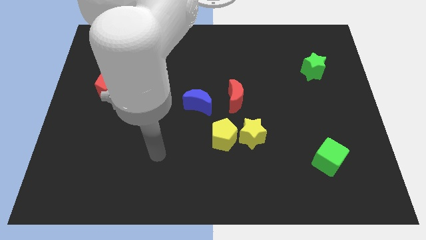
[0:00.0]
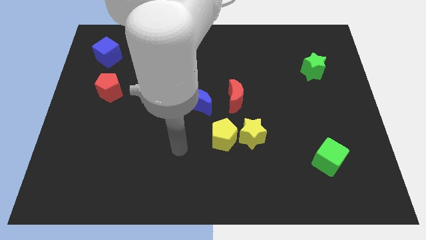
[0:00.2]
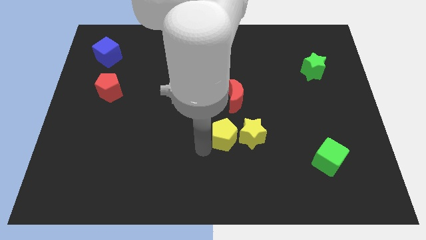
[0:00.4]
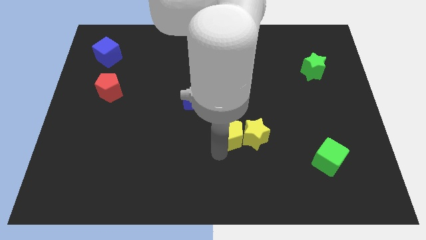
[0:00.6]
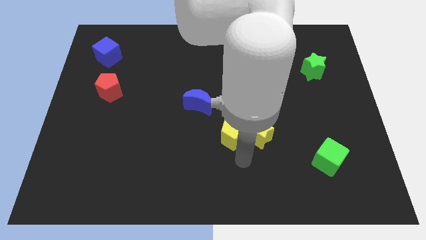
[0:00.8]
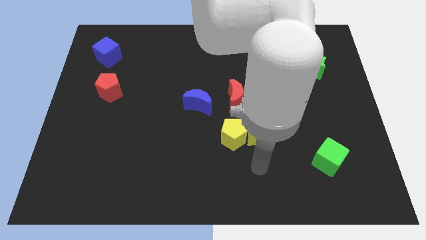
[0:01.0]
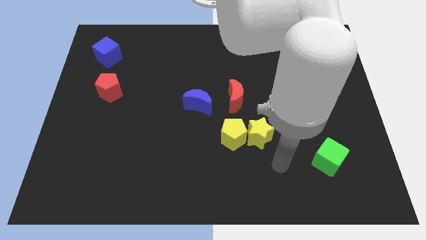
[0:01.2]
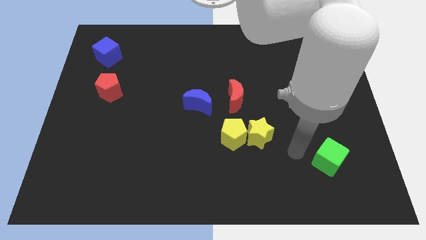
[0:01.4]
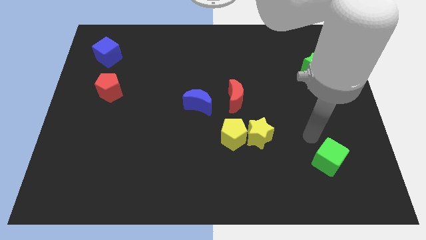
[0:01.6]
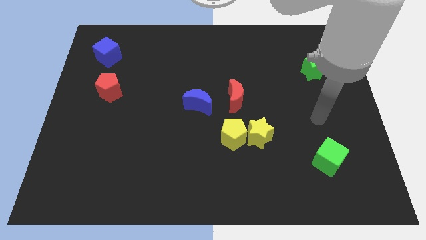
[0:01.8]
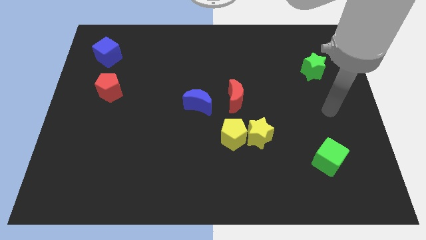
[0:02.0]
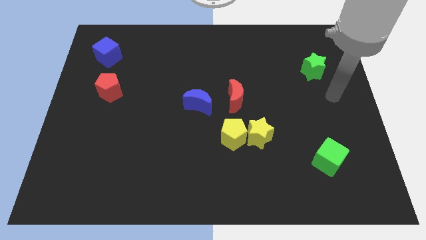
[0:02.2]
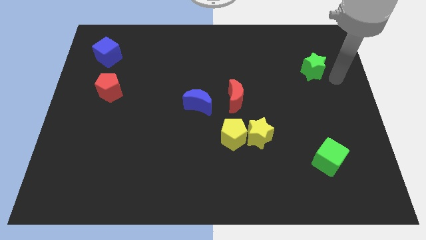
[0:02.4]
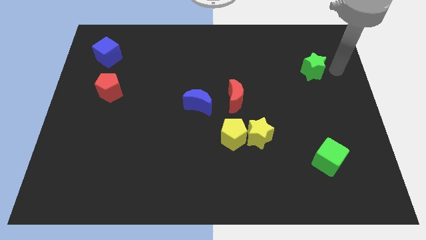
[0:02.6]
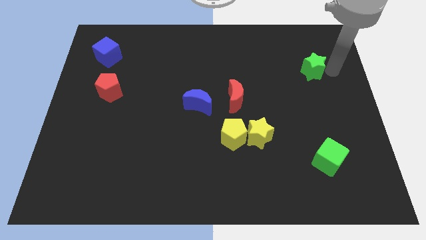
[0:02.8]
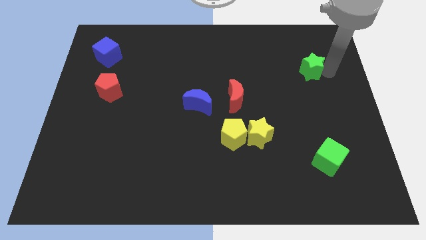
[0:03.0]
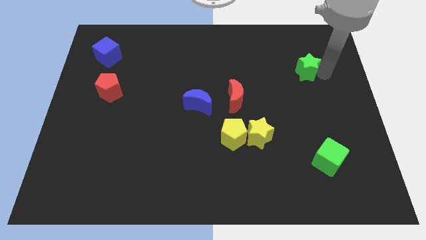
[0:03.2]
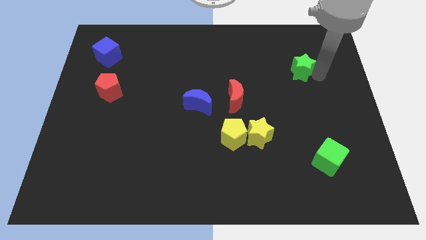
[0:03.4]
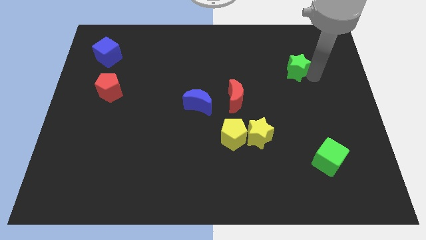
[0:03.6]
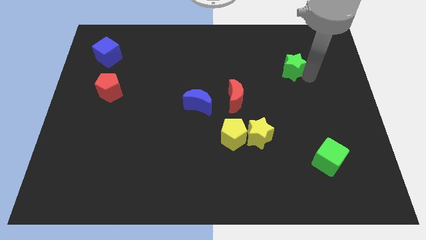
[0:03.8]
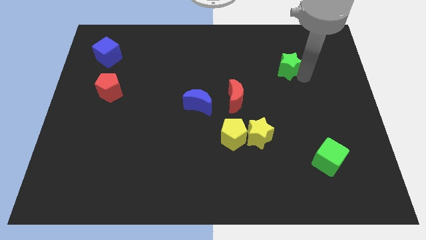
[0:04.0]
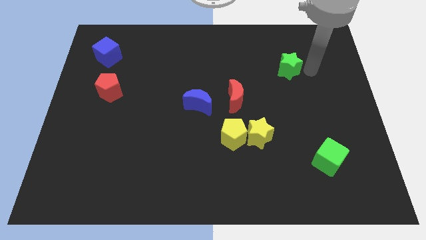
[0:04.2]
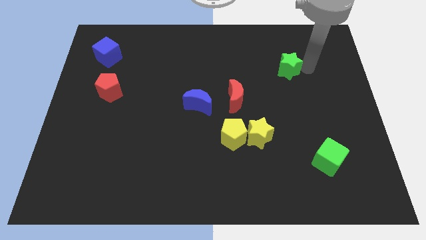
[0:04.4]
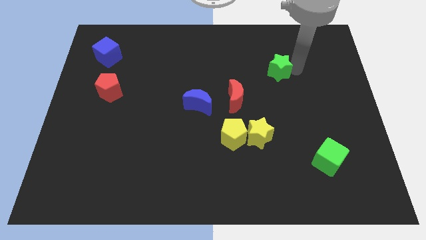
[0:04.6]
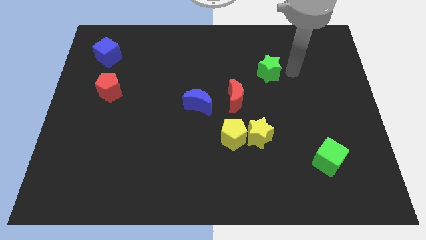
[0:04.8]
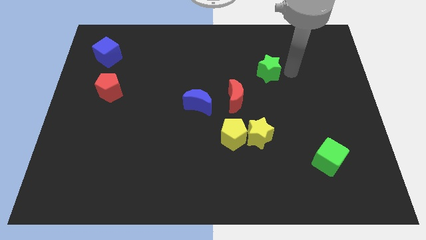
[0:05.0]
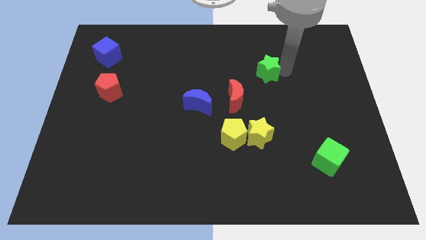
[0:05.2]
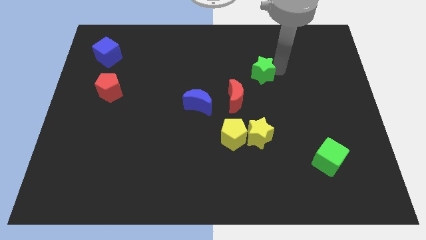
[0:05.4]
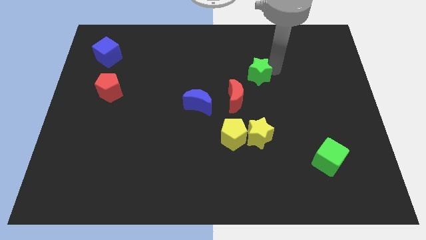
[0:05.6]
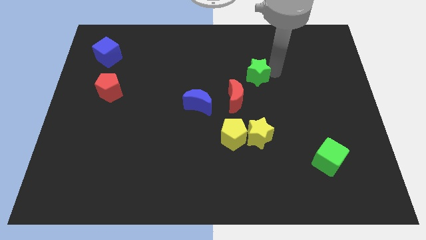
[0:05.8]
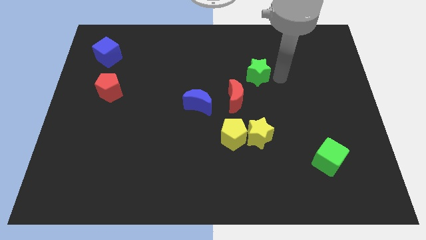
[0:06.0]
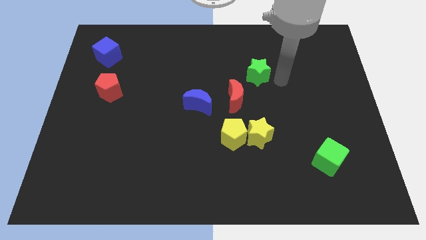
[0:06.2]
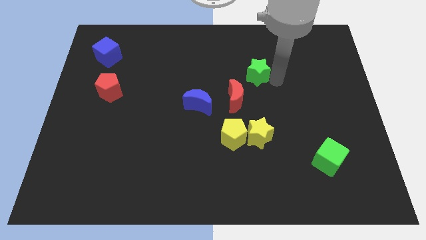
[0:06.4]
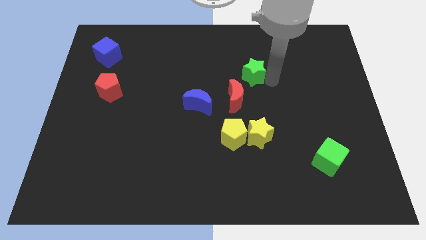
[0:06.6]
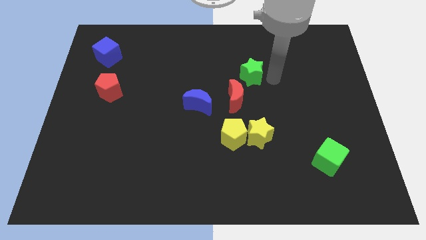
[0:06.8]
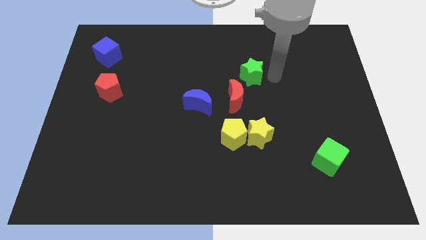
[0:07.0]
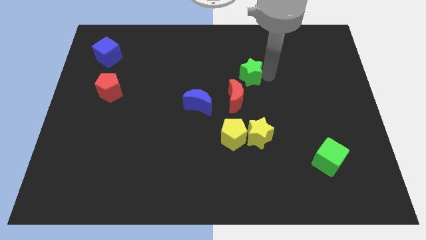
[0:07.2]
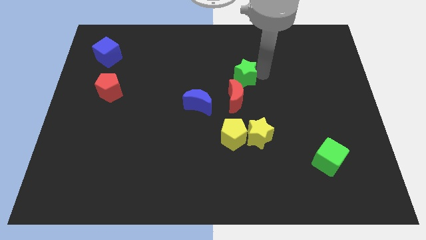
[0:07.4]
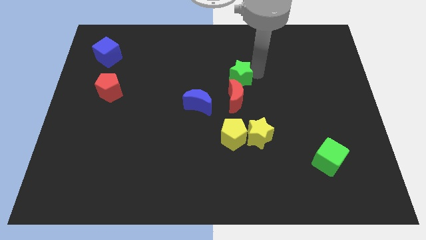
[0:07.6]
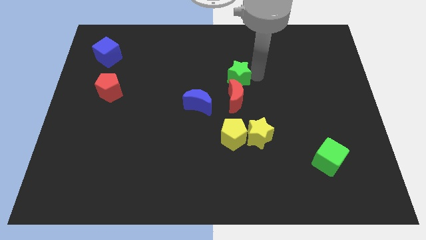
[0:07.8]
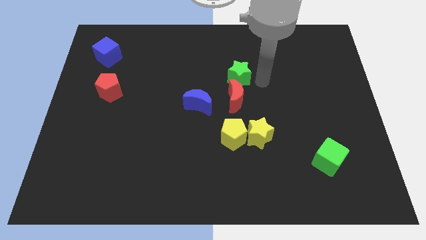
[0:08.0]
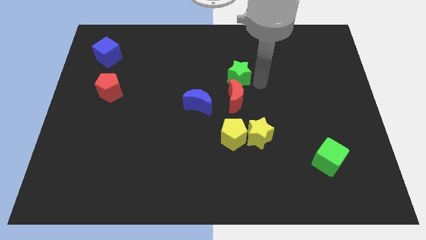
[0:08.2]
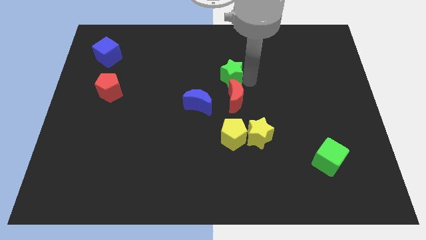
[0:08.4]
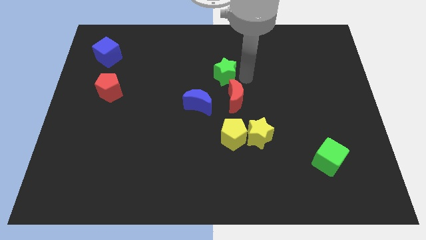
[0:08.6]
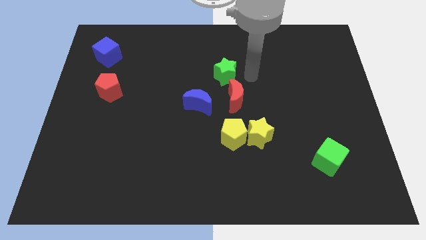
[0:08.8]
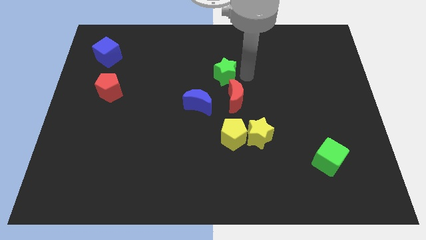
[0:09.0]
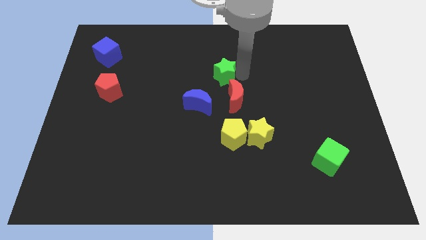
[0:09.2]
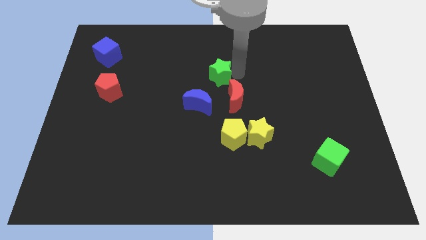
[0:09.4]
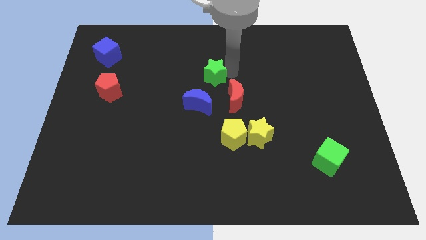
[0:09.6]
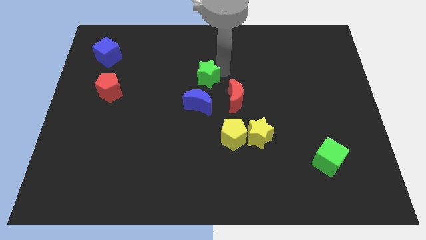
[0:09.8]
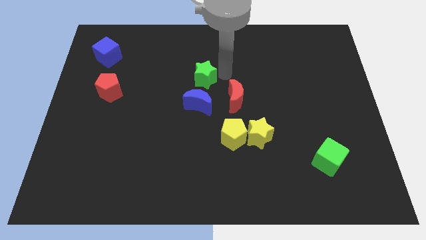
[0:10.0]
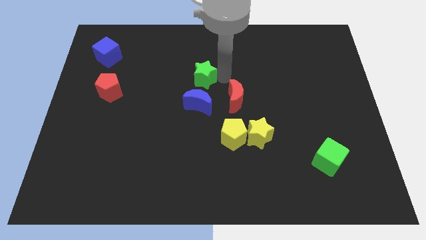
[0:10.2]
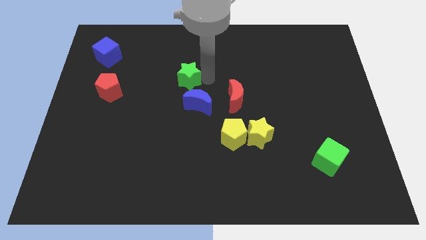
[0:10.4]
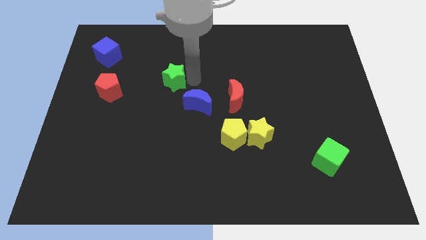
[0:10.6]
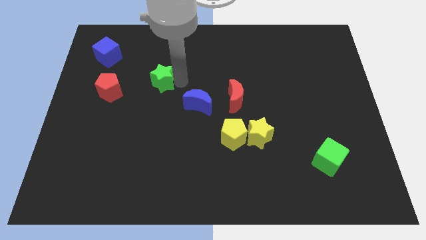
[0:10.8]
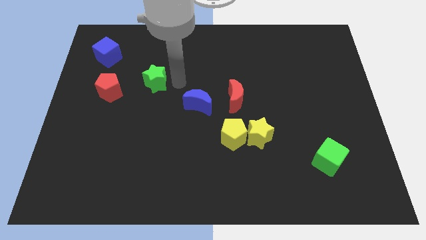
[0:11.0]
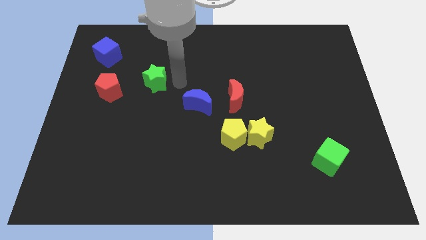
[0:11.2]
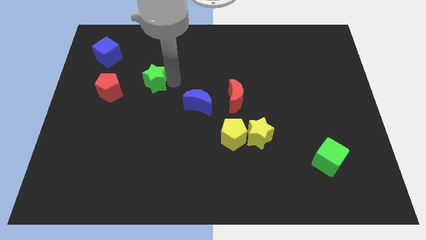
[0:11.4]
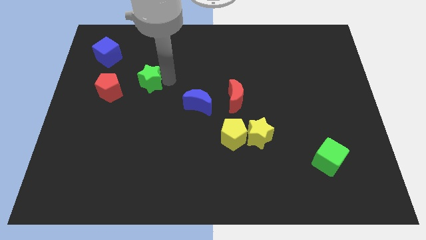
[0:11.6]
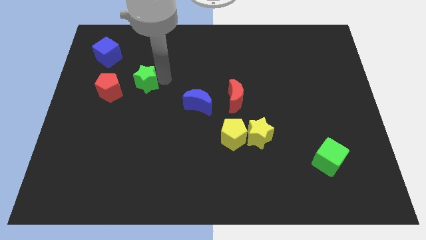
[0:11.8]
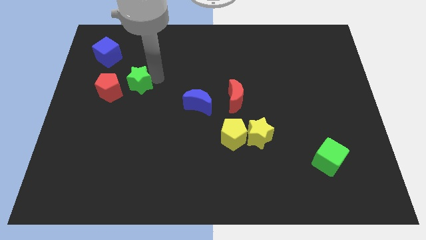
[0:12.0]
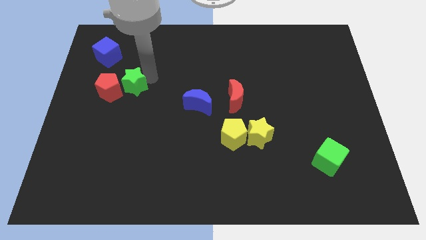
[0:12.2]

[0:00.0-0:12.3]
put the green star to the red pentagon

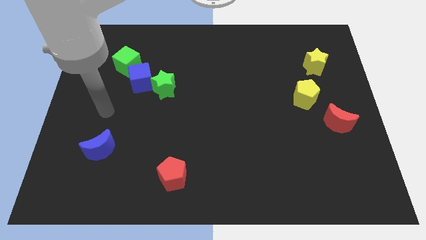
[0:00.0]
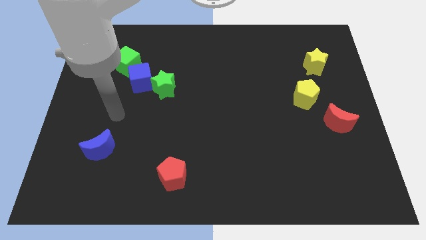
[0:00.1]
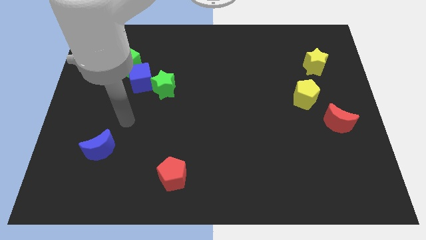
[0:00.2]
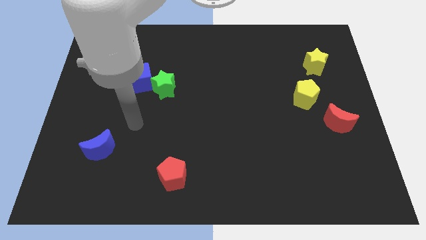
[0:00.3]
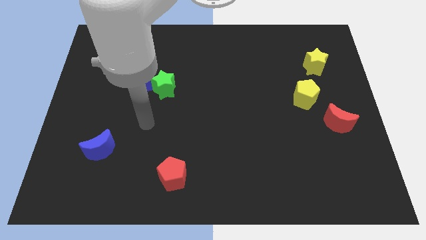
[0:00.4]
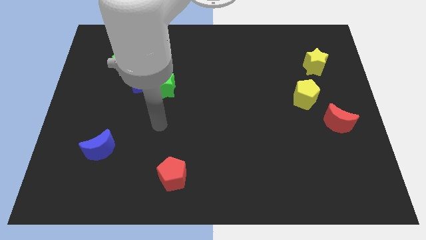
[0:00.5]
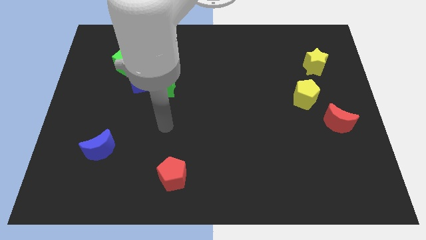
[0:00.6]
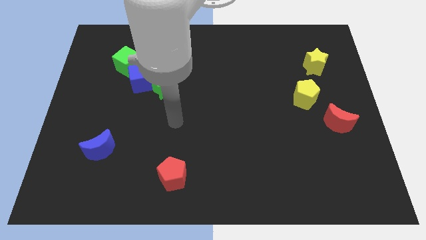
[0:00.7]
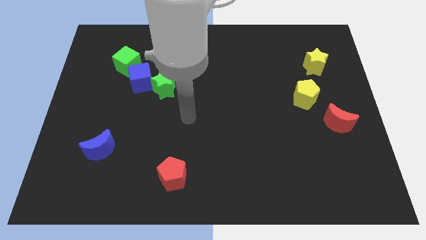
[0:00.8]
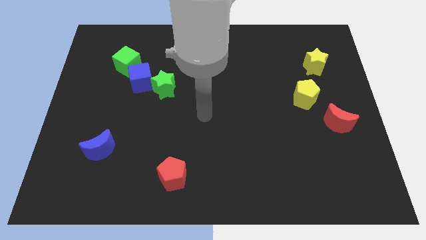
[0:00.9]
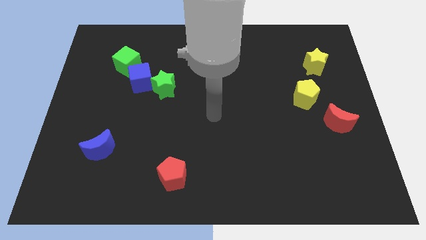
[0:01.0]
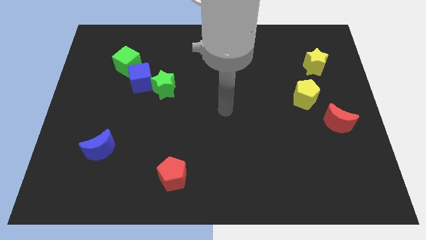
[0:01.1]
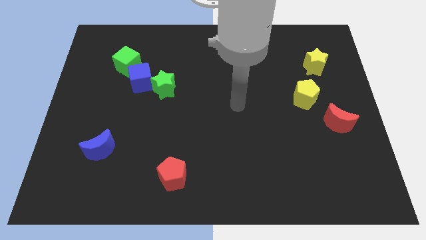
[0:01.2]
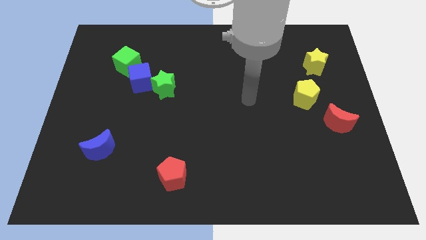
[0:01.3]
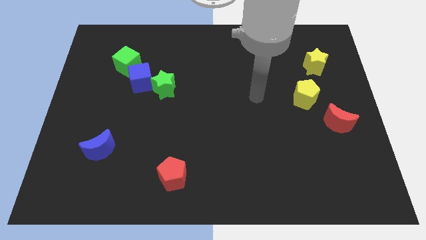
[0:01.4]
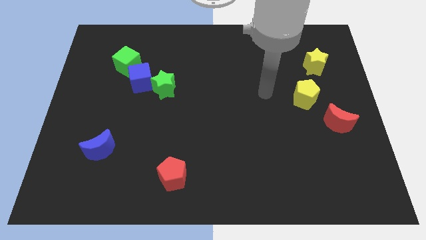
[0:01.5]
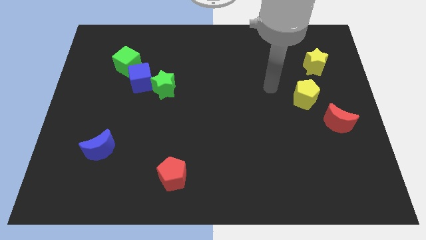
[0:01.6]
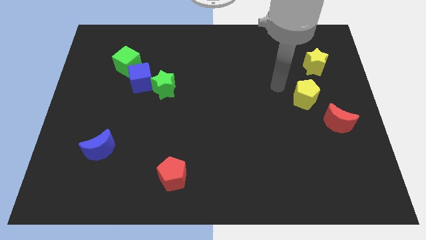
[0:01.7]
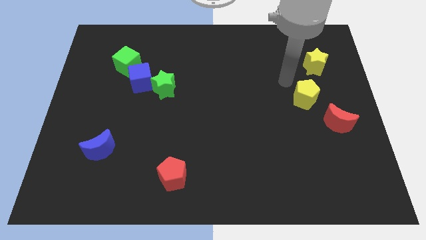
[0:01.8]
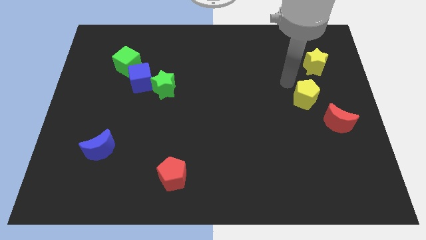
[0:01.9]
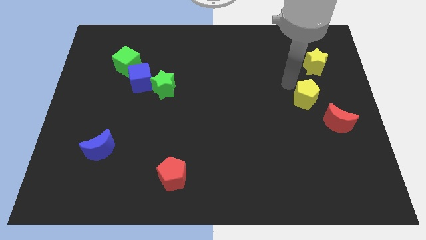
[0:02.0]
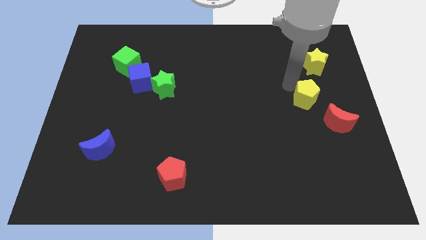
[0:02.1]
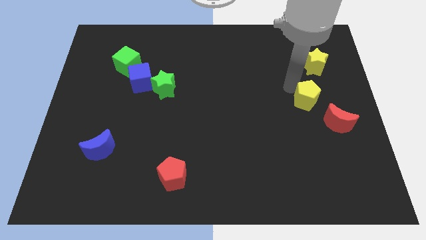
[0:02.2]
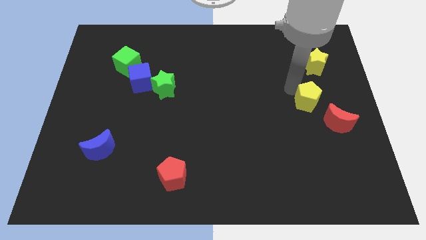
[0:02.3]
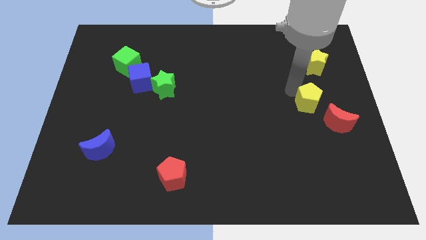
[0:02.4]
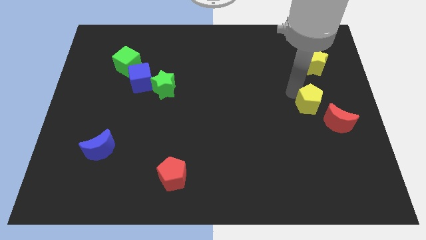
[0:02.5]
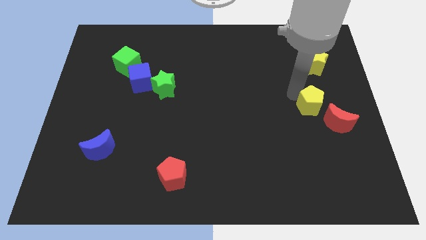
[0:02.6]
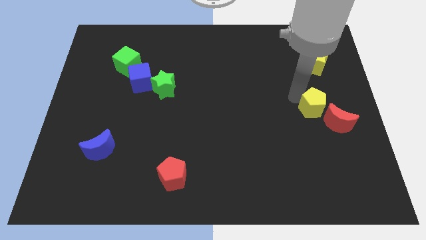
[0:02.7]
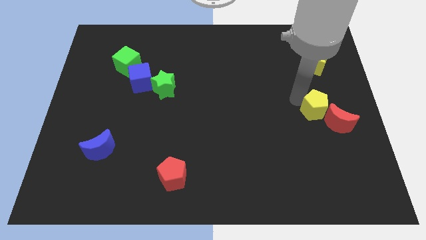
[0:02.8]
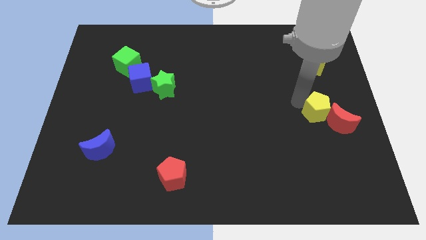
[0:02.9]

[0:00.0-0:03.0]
put the yellow pentagon close to the red moon
